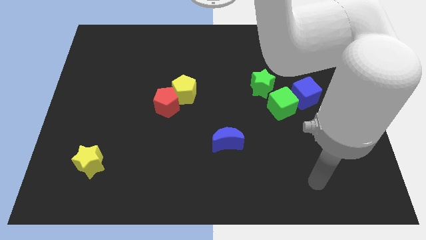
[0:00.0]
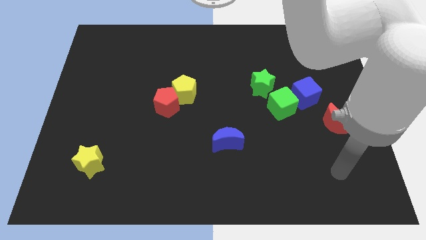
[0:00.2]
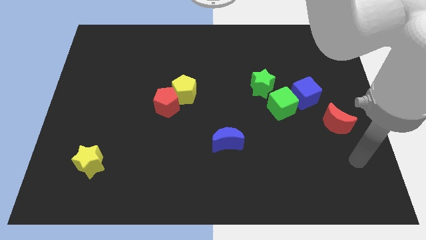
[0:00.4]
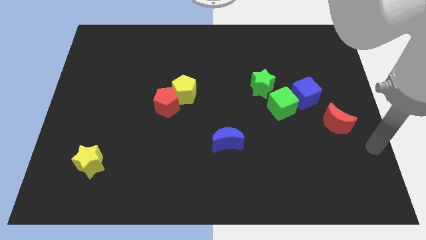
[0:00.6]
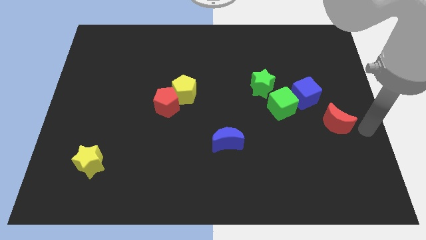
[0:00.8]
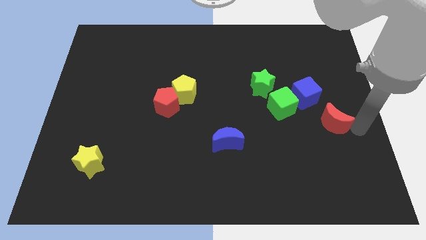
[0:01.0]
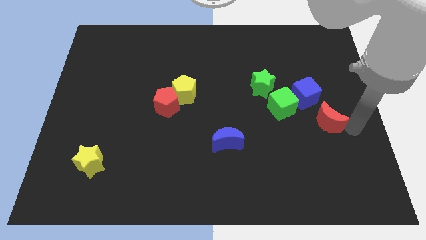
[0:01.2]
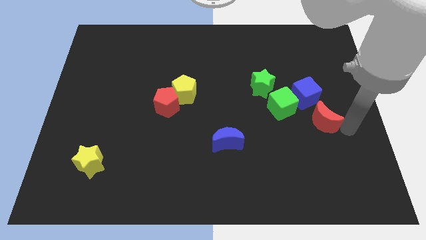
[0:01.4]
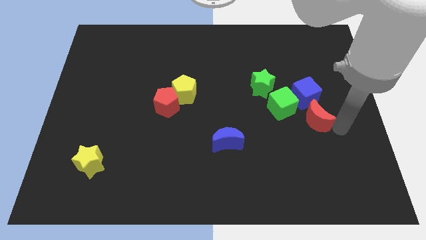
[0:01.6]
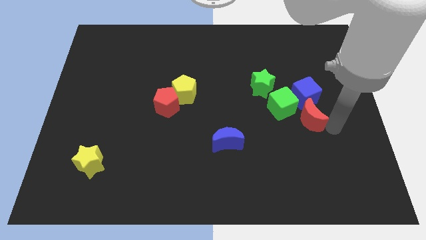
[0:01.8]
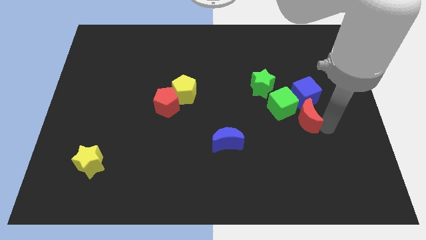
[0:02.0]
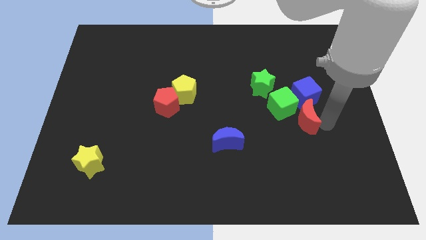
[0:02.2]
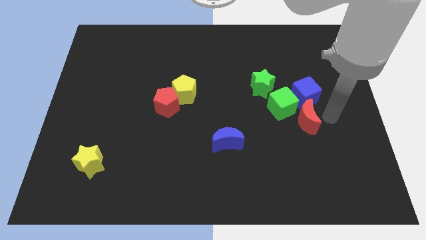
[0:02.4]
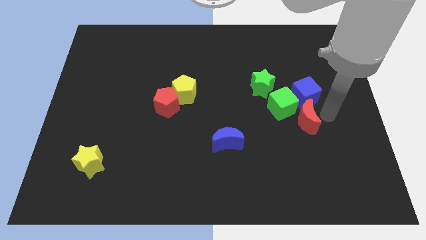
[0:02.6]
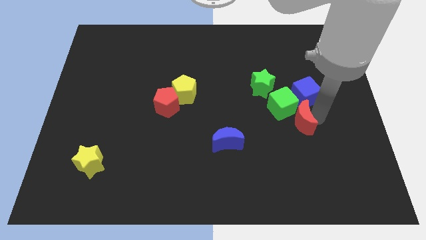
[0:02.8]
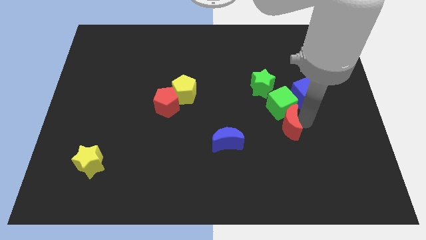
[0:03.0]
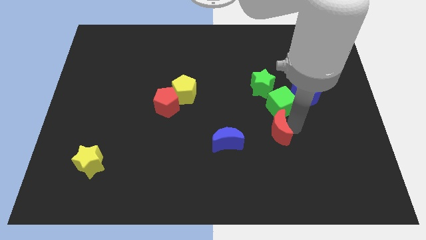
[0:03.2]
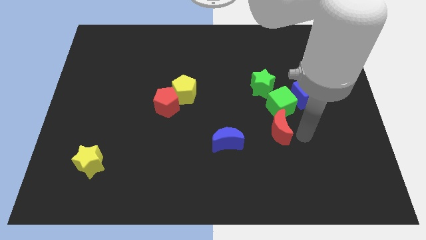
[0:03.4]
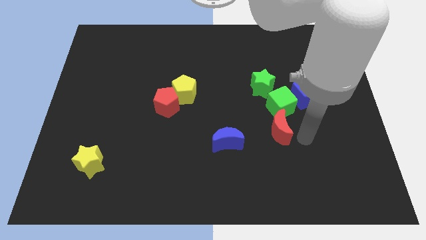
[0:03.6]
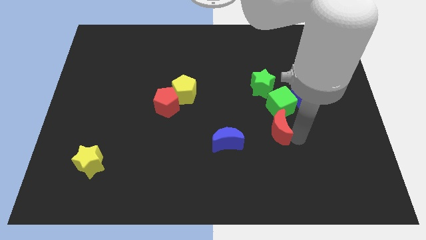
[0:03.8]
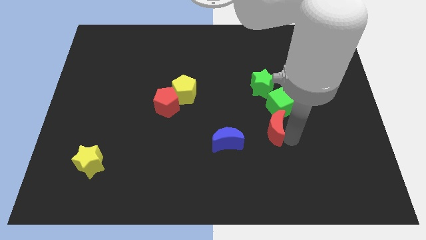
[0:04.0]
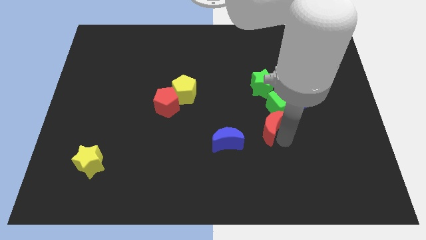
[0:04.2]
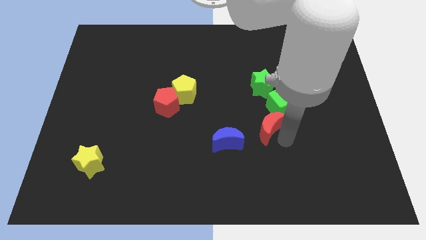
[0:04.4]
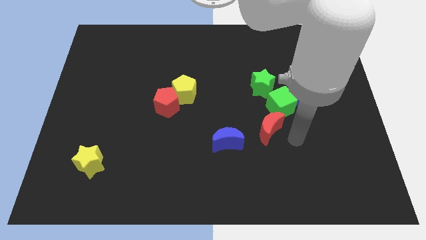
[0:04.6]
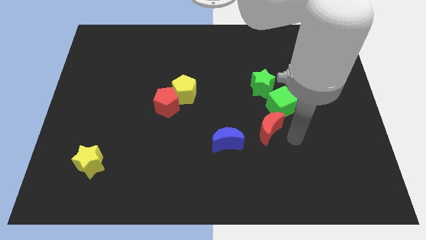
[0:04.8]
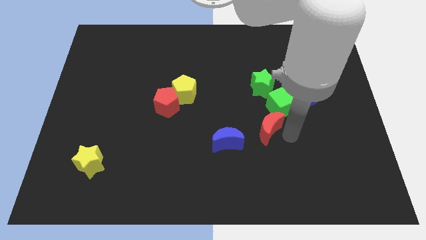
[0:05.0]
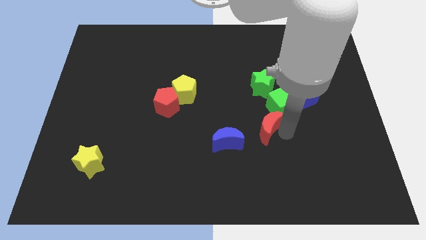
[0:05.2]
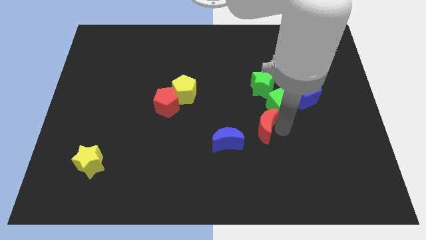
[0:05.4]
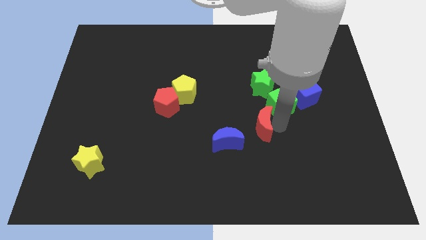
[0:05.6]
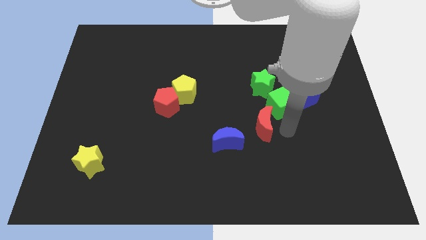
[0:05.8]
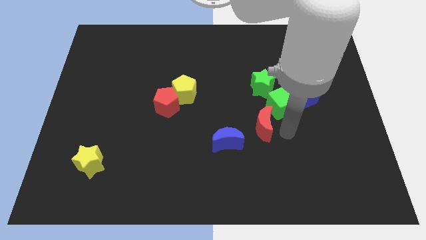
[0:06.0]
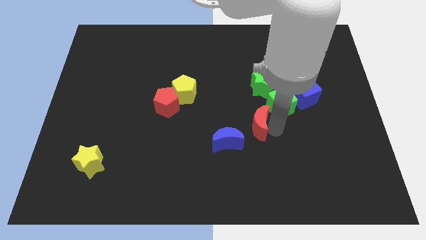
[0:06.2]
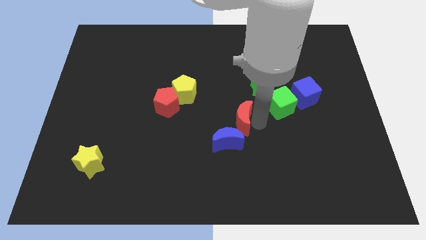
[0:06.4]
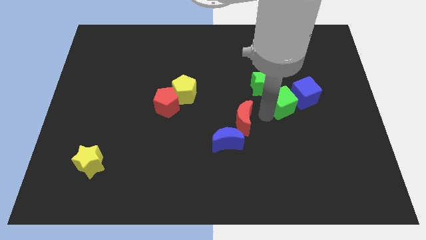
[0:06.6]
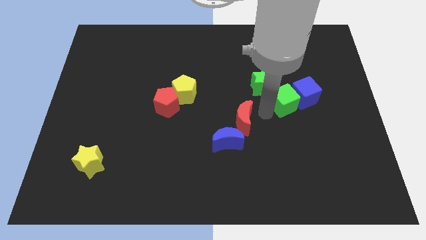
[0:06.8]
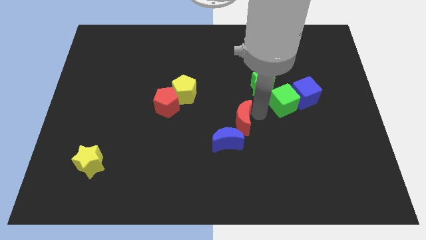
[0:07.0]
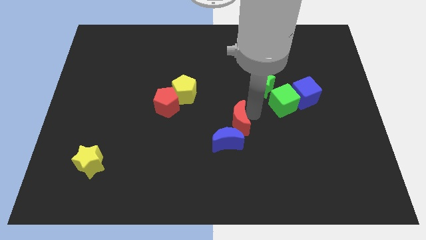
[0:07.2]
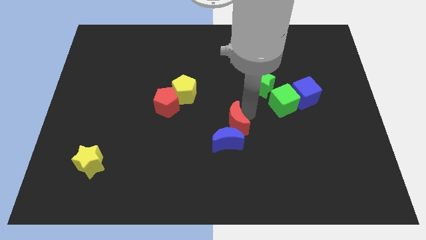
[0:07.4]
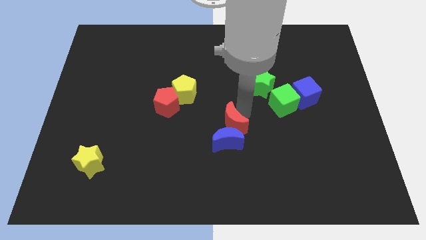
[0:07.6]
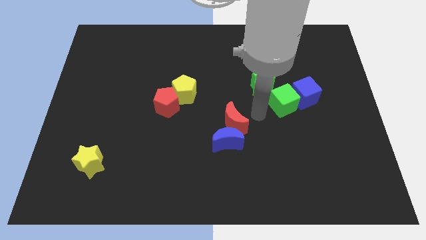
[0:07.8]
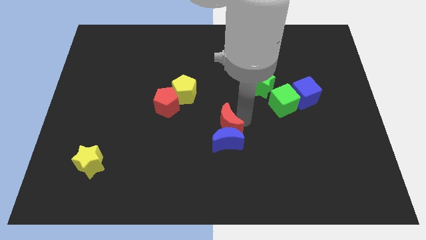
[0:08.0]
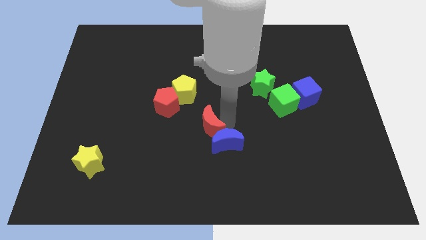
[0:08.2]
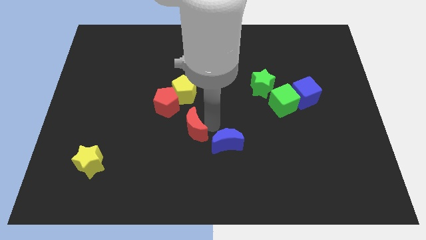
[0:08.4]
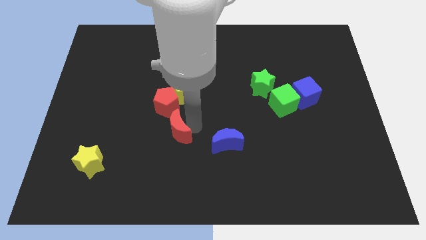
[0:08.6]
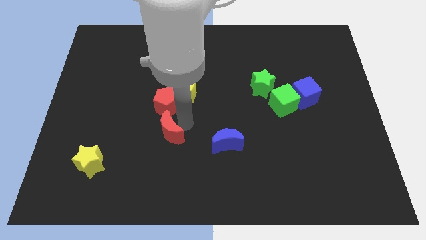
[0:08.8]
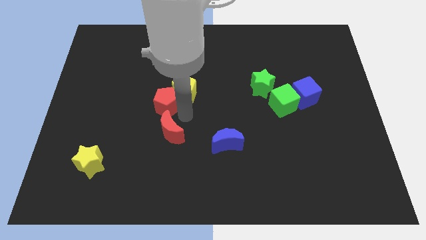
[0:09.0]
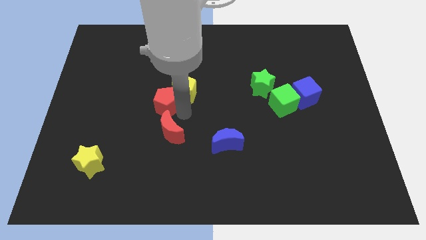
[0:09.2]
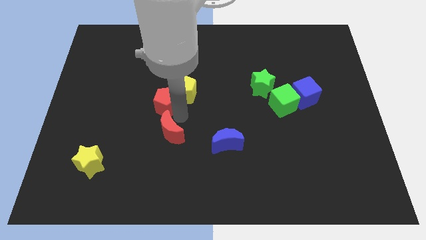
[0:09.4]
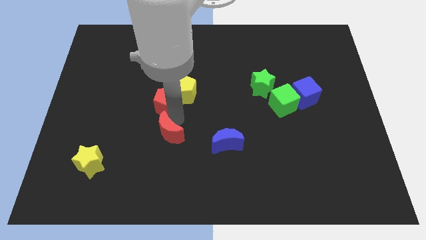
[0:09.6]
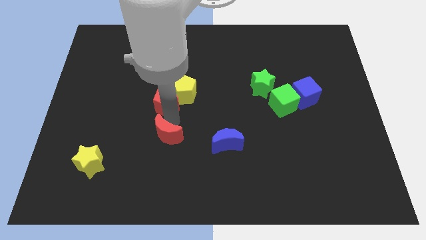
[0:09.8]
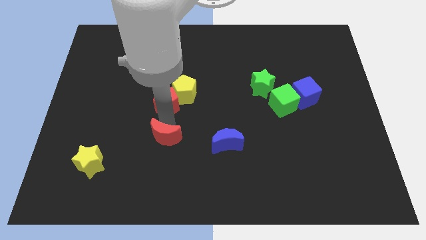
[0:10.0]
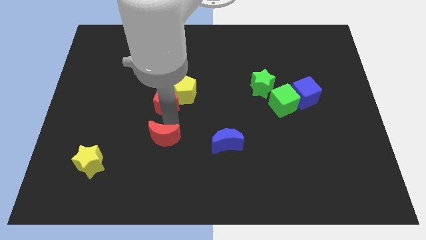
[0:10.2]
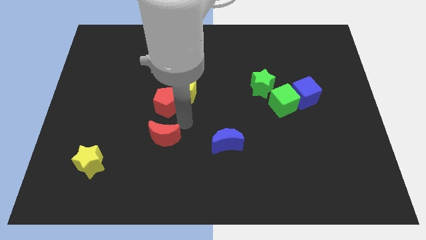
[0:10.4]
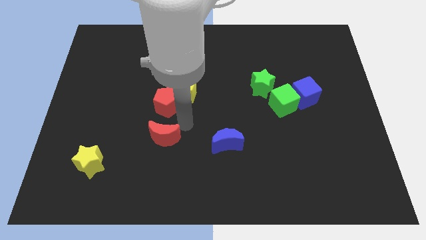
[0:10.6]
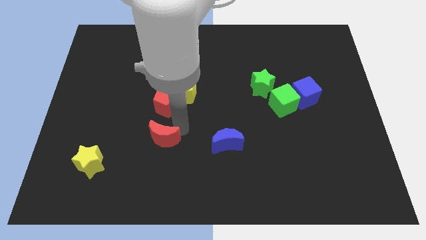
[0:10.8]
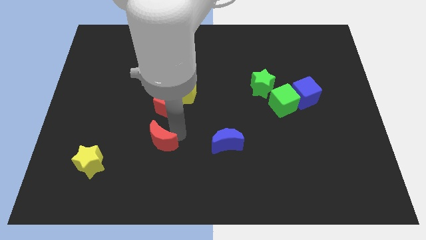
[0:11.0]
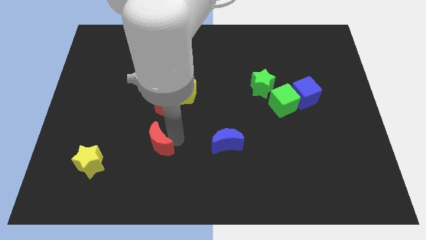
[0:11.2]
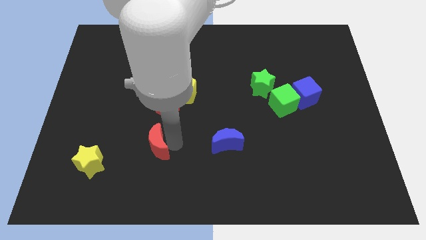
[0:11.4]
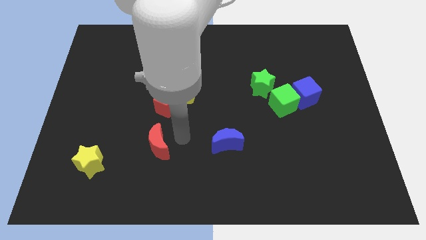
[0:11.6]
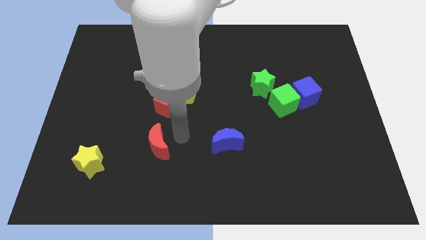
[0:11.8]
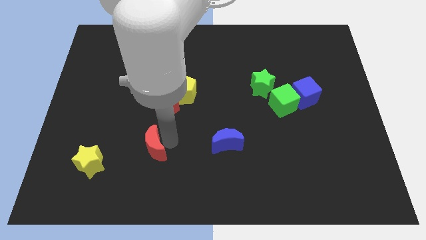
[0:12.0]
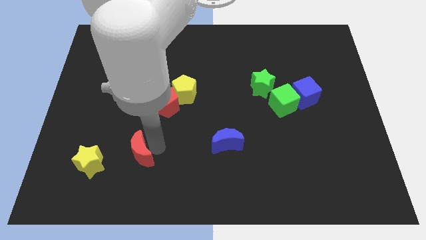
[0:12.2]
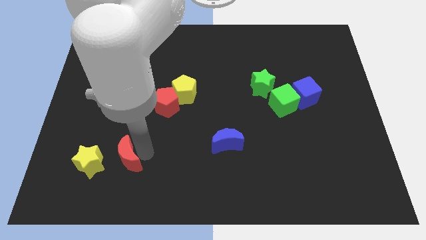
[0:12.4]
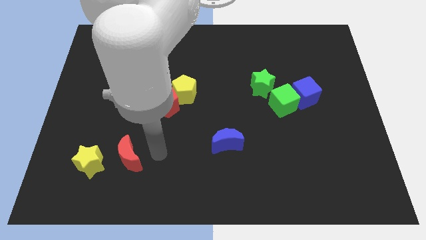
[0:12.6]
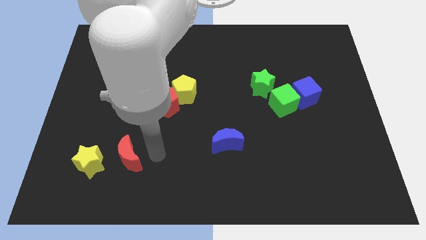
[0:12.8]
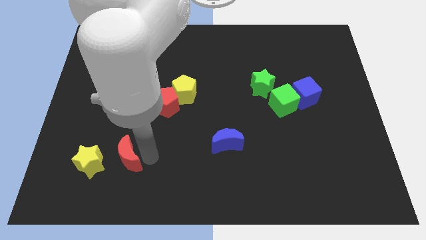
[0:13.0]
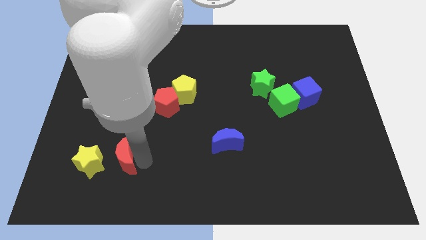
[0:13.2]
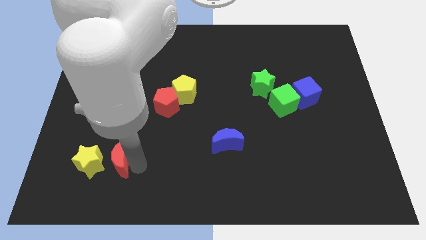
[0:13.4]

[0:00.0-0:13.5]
push the red moon towards the yellow star

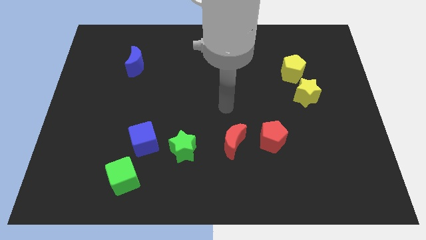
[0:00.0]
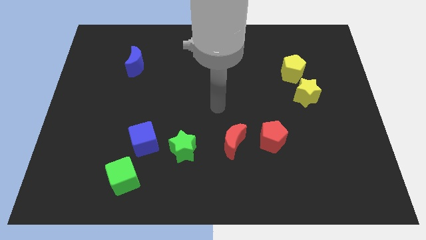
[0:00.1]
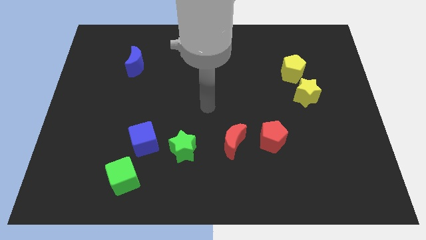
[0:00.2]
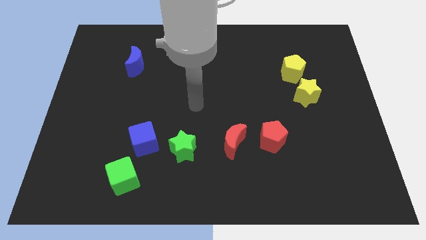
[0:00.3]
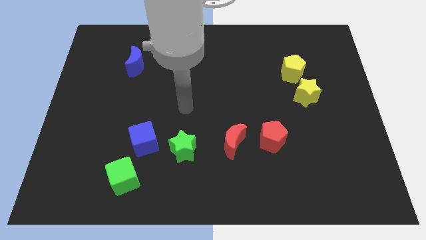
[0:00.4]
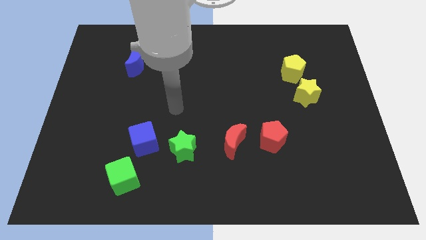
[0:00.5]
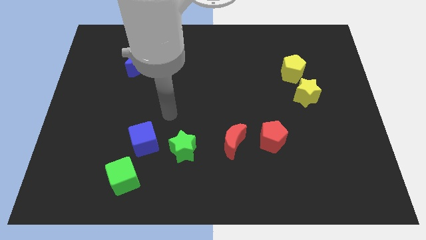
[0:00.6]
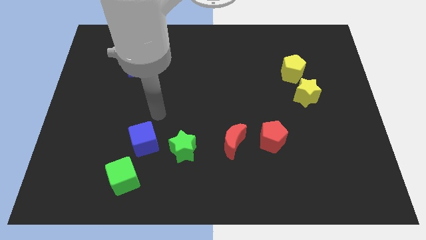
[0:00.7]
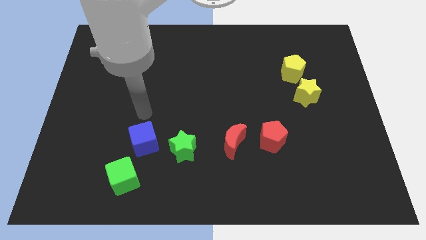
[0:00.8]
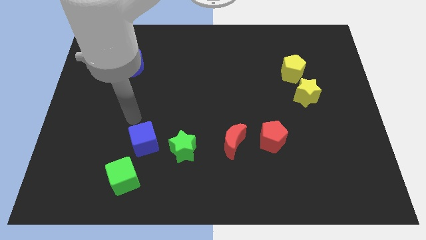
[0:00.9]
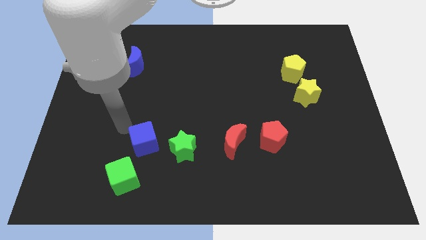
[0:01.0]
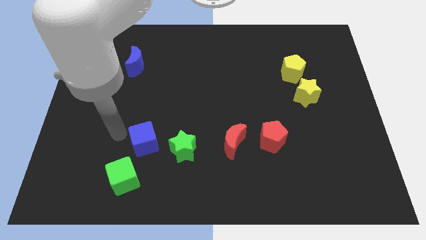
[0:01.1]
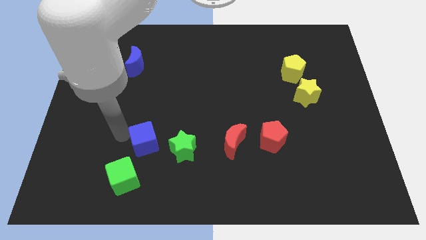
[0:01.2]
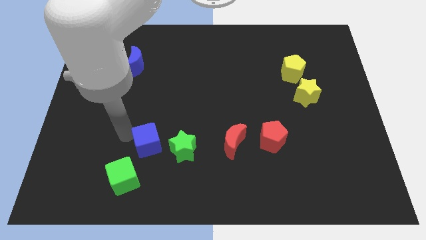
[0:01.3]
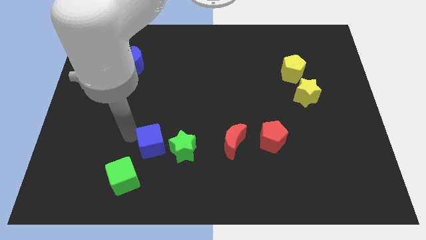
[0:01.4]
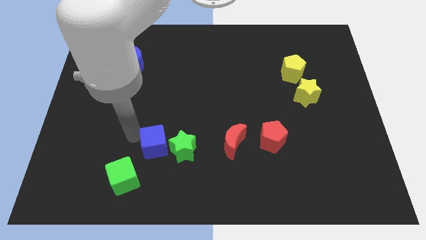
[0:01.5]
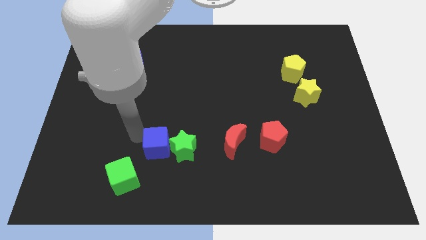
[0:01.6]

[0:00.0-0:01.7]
push the blue cube towards the green star
